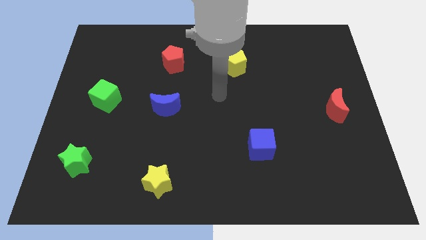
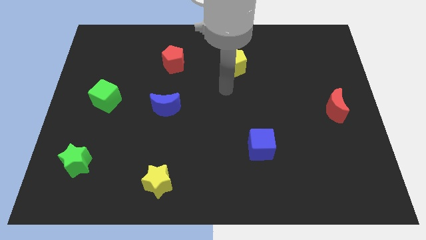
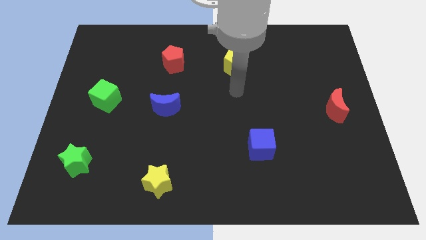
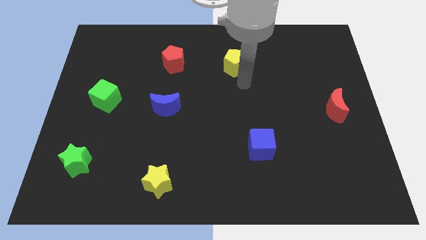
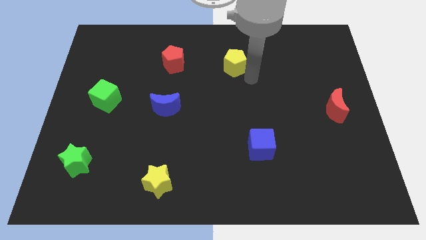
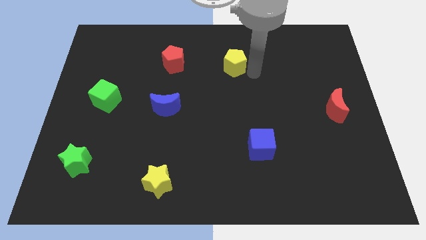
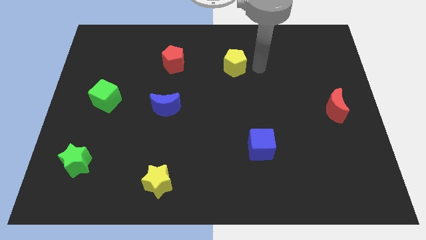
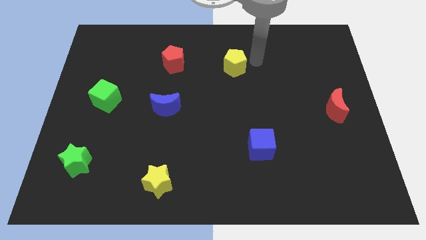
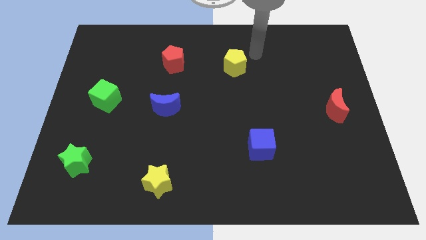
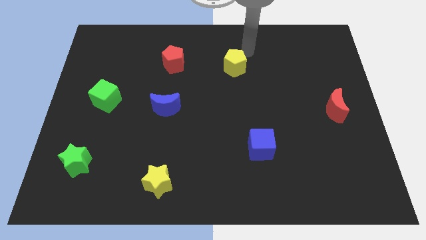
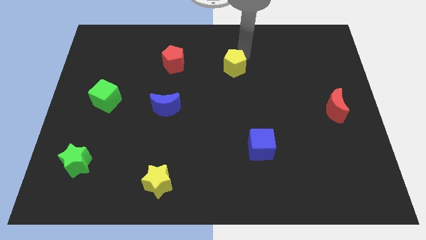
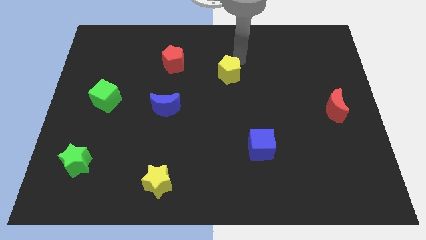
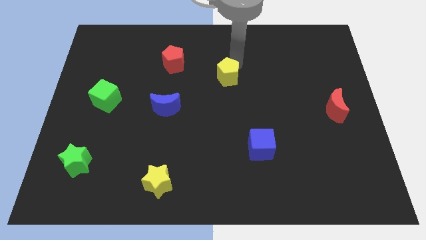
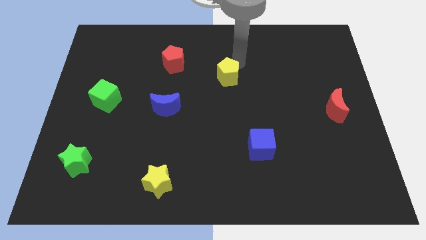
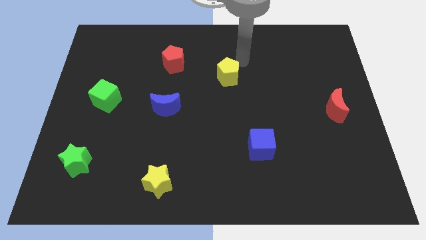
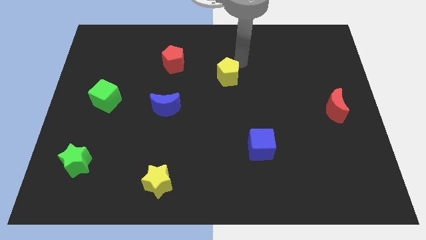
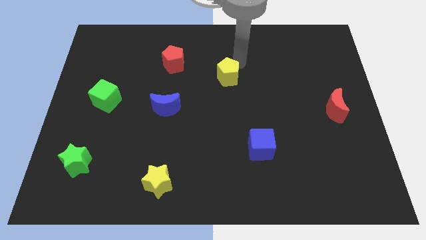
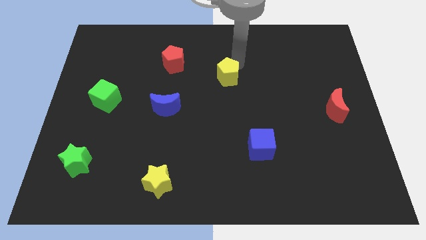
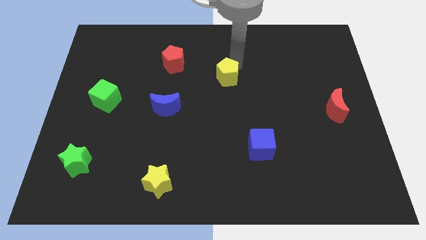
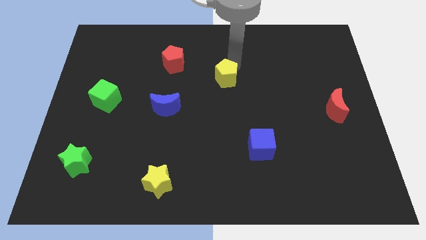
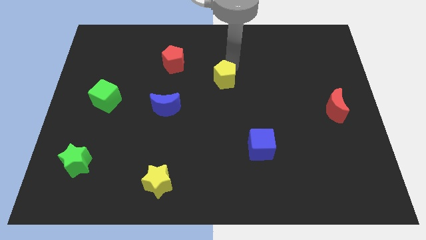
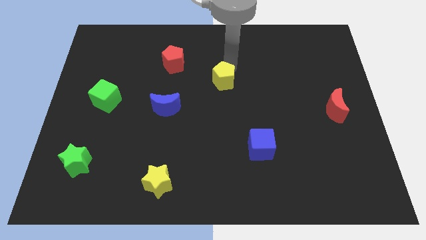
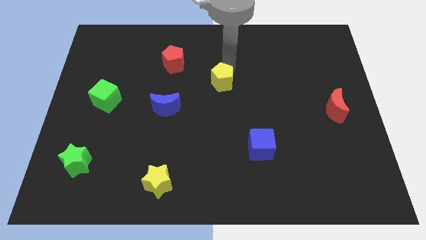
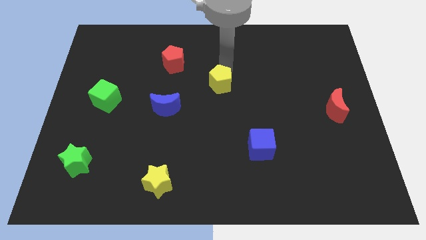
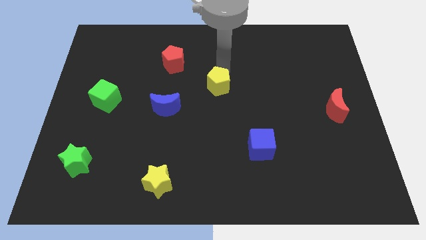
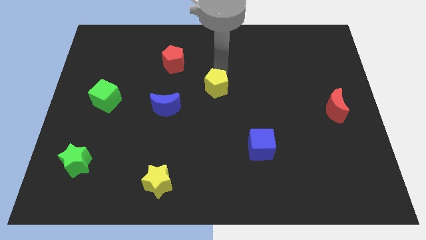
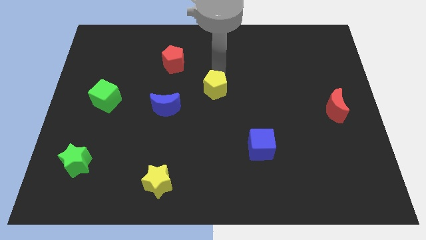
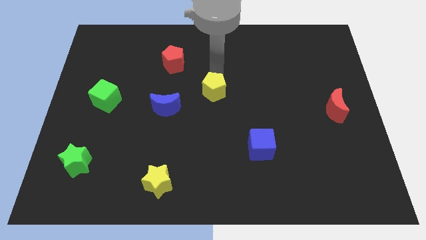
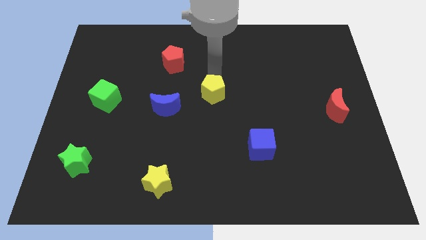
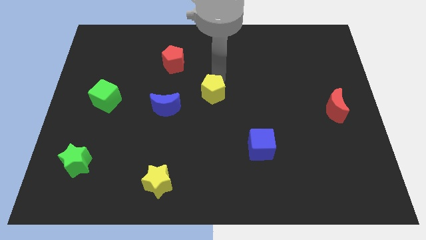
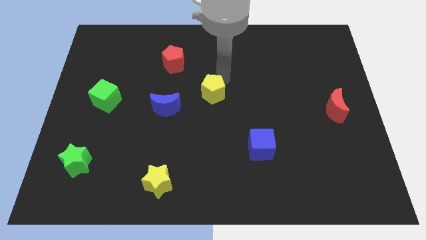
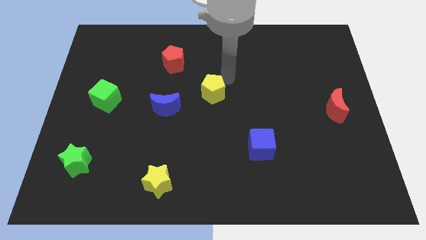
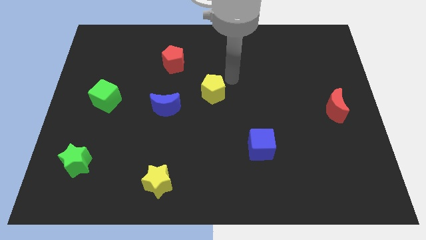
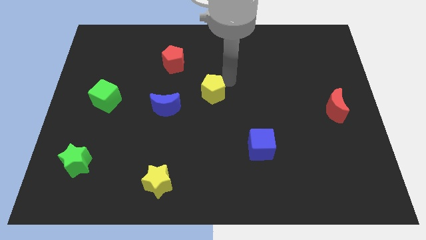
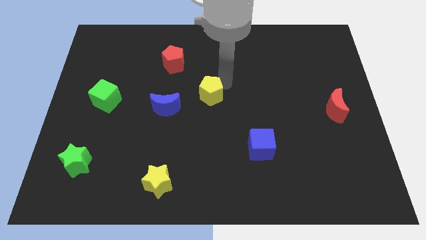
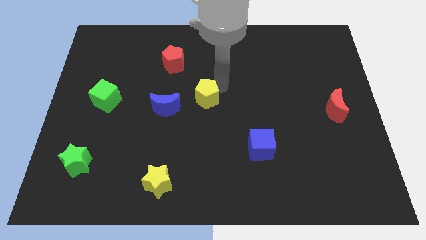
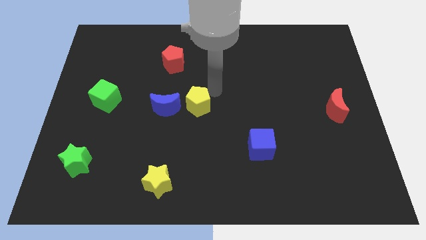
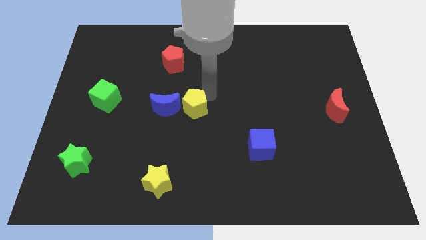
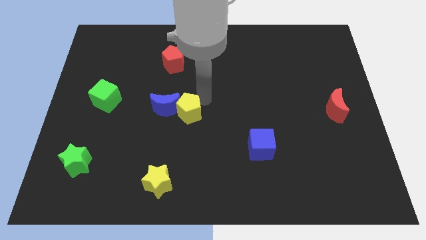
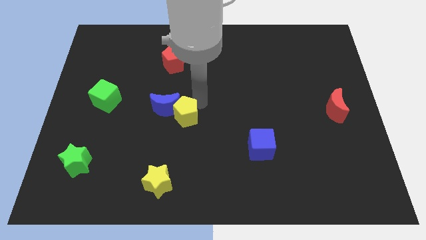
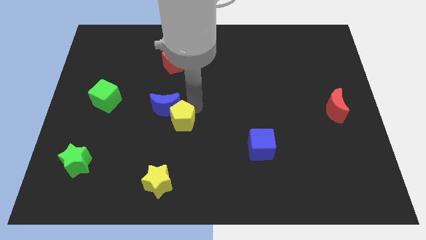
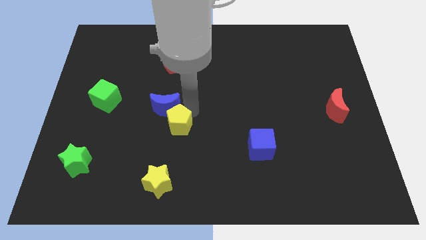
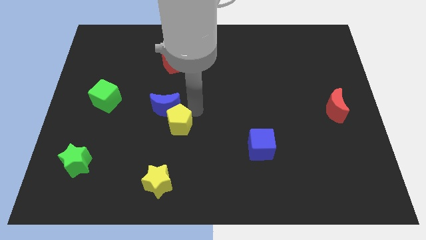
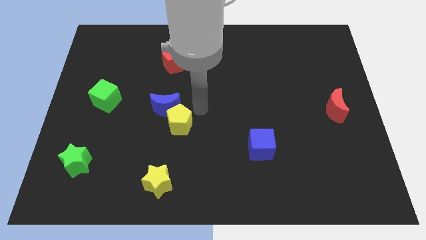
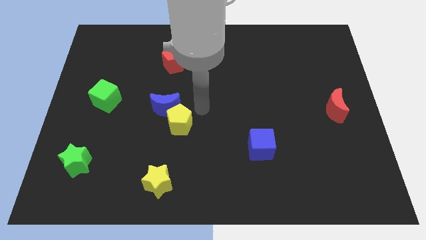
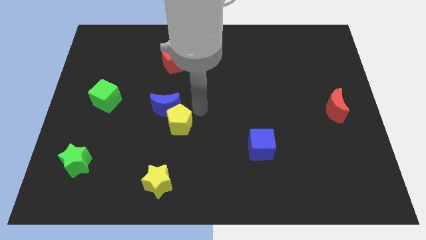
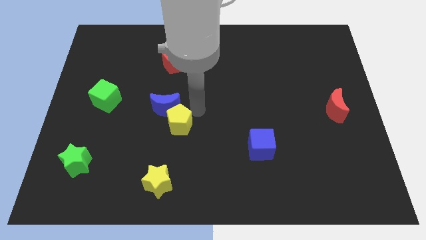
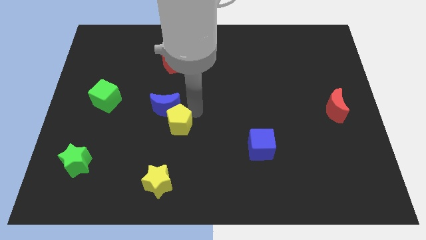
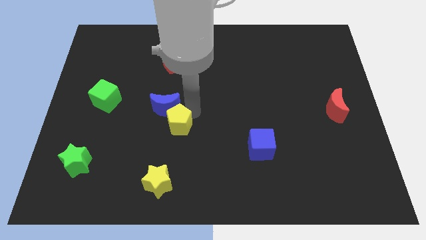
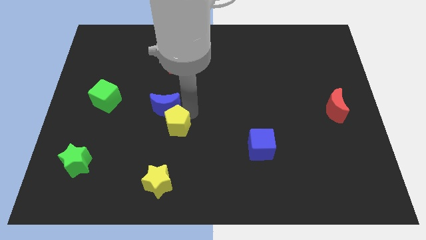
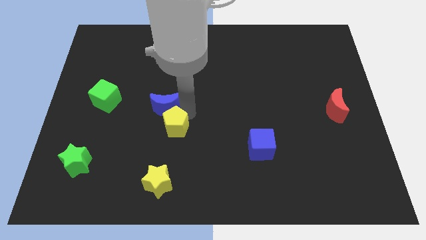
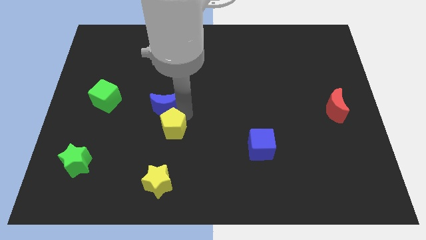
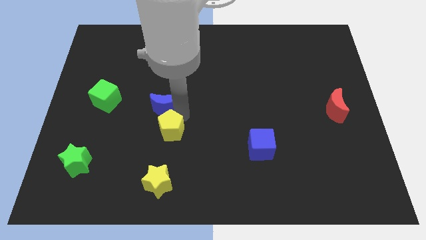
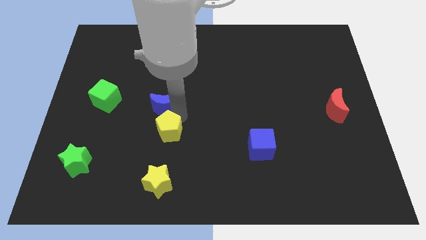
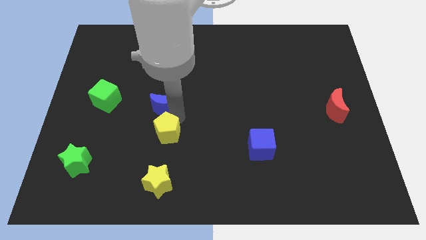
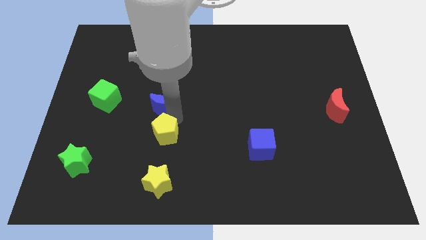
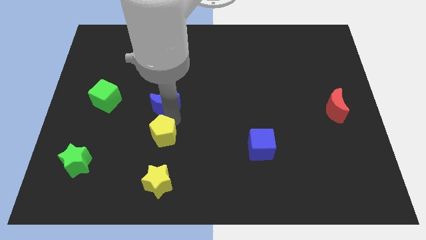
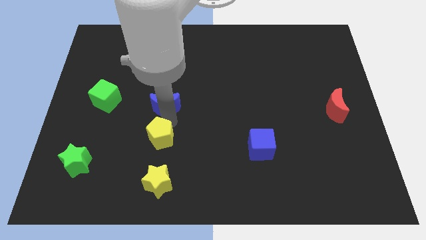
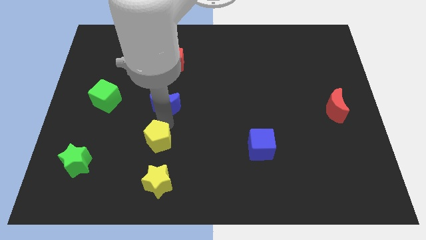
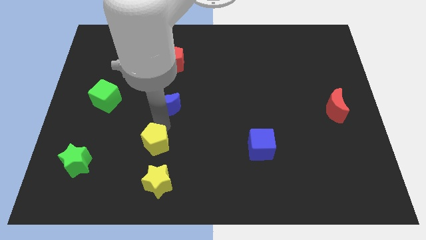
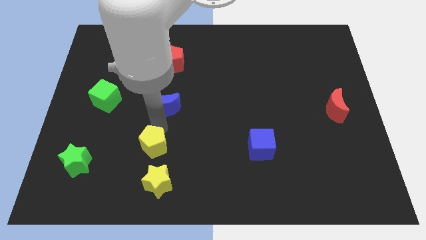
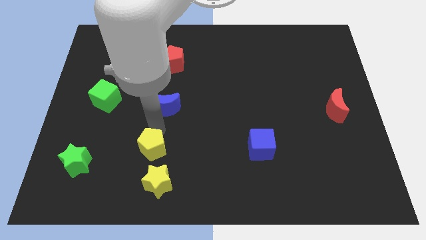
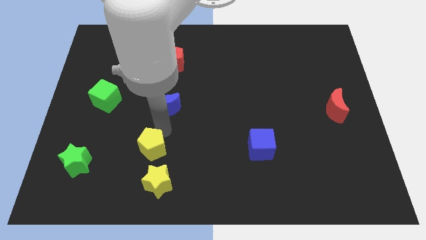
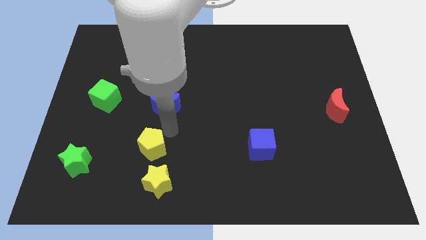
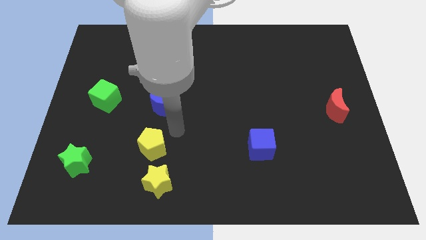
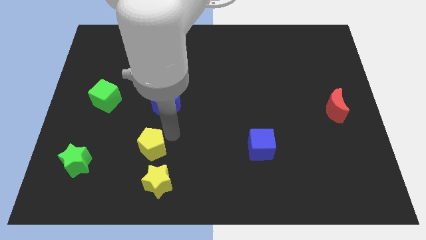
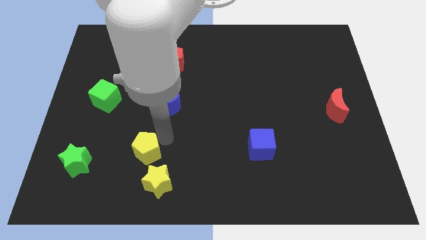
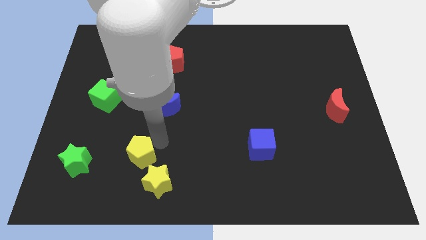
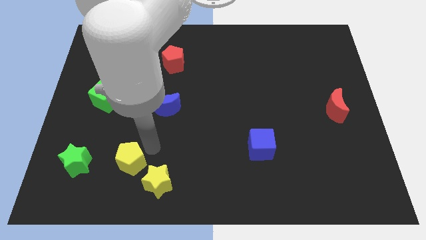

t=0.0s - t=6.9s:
put the yellow pentagon left of the yellow star

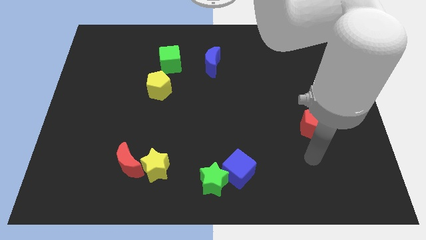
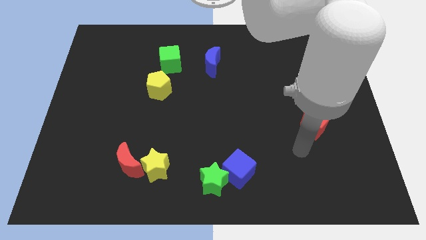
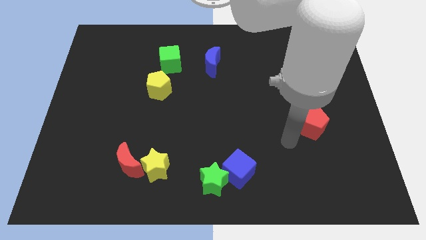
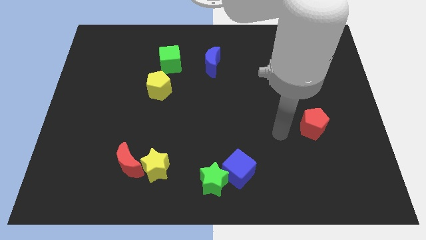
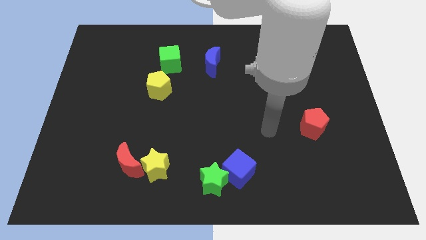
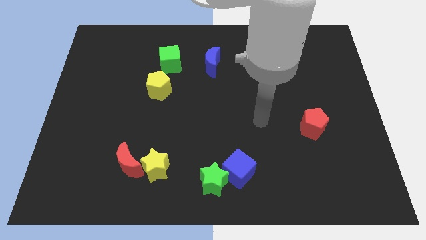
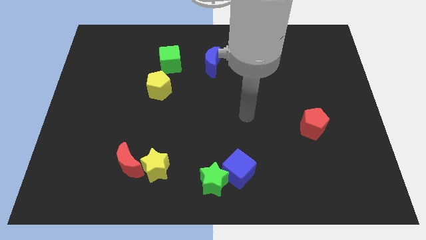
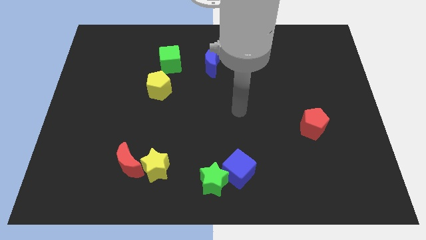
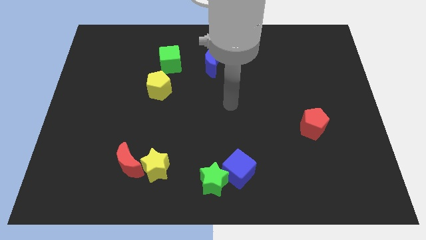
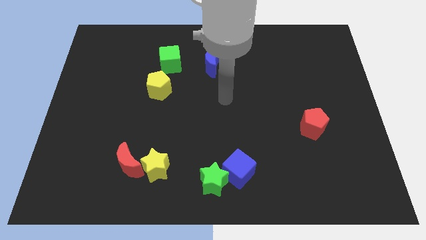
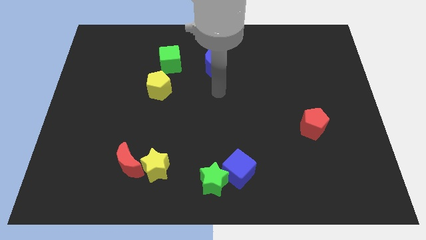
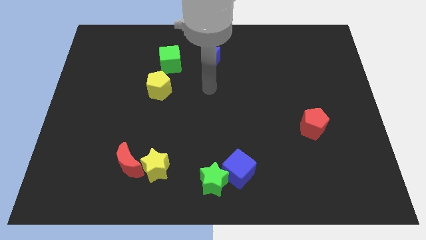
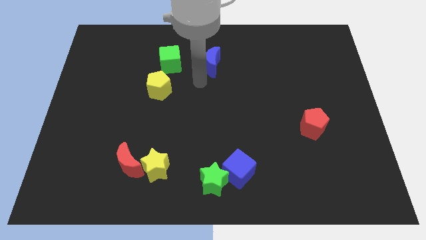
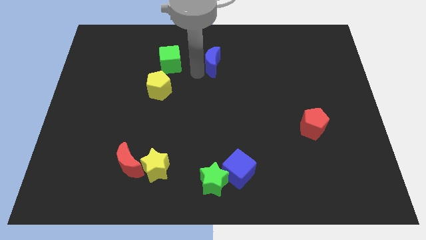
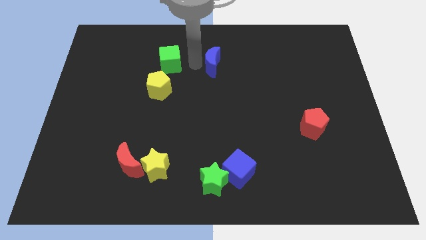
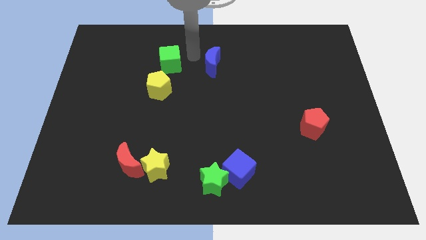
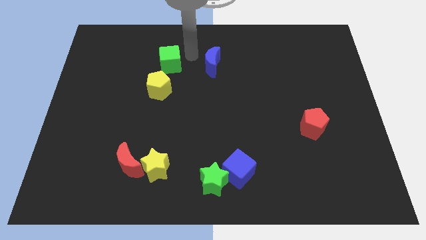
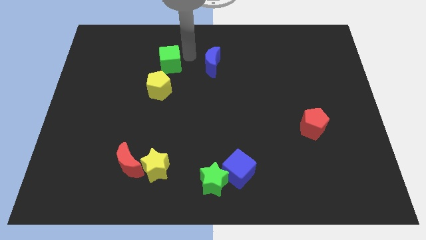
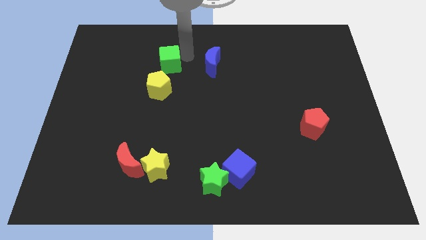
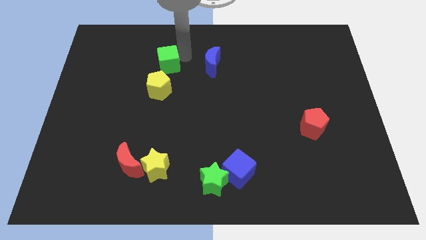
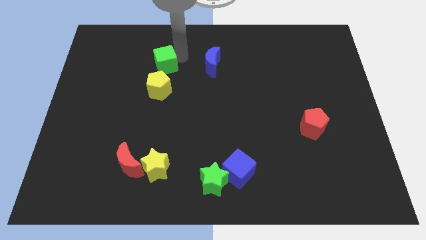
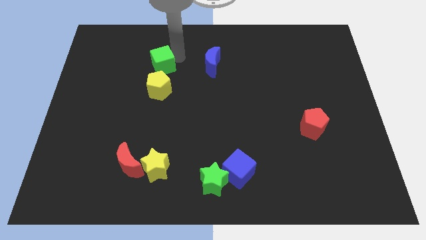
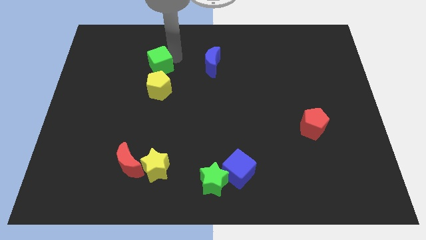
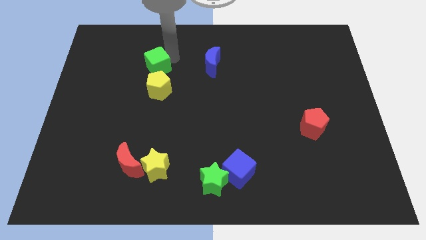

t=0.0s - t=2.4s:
put the green cube diagonally up and to the left of the yellow pentagon
